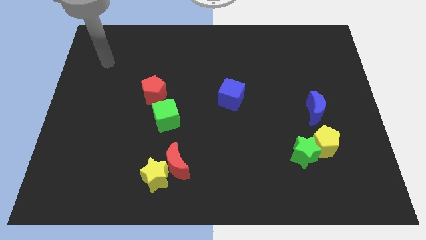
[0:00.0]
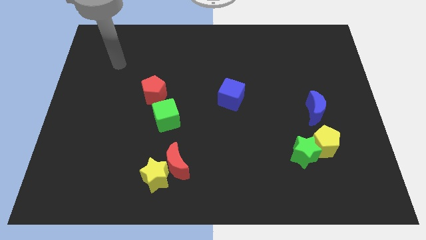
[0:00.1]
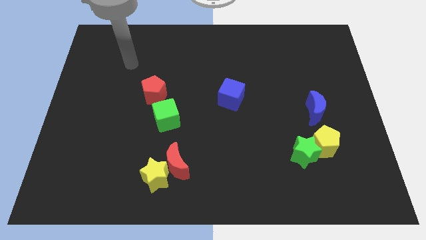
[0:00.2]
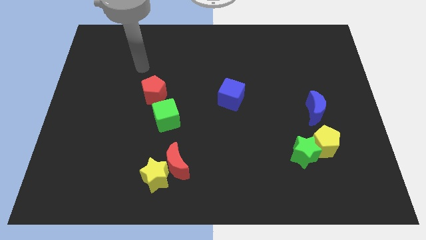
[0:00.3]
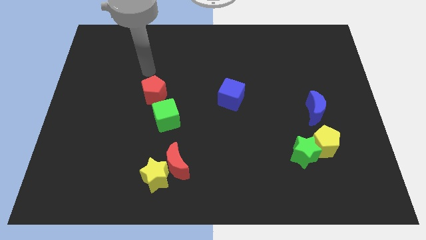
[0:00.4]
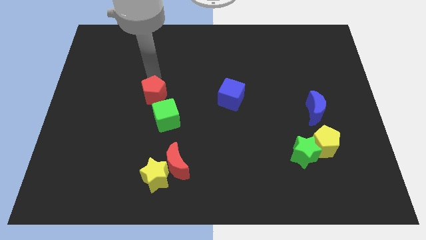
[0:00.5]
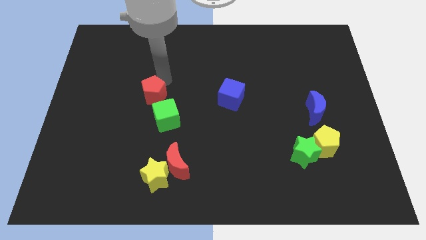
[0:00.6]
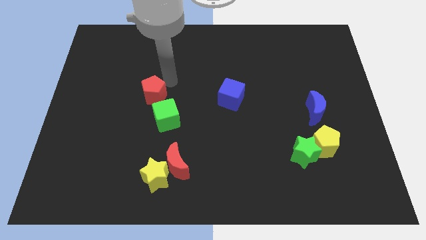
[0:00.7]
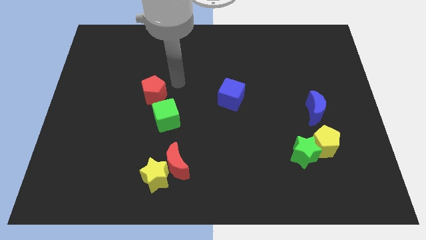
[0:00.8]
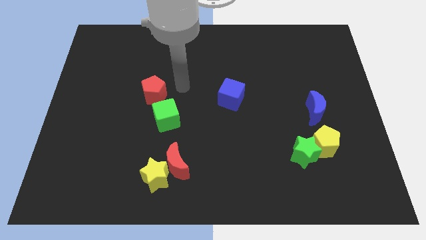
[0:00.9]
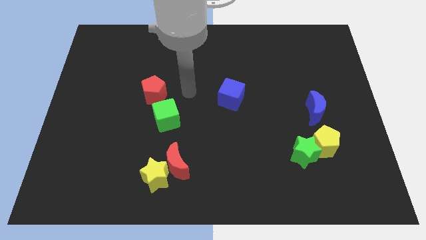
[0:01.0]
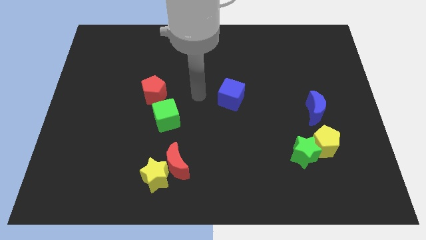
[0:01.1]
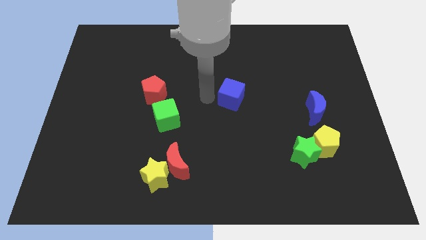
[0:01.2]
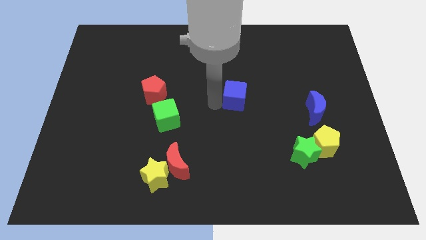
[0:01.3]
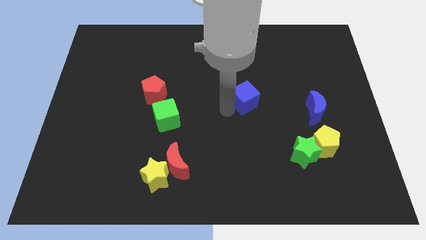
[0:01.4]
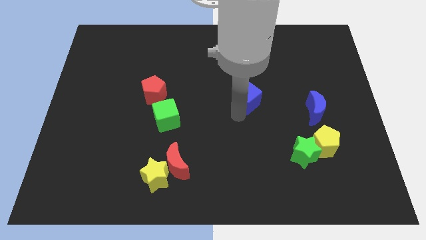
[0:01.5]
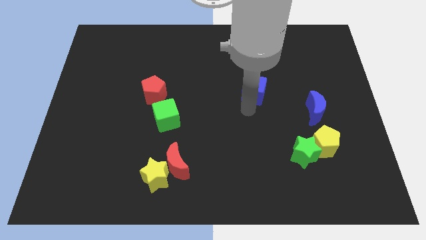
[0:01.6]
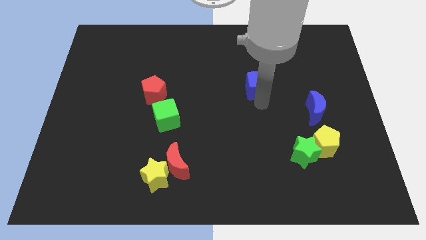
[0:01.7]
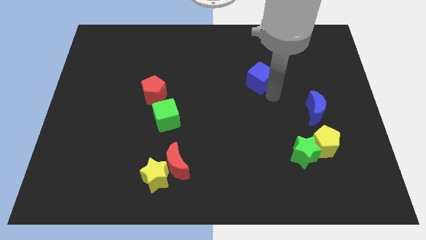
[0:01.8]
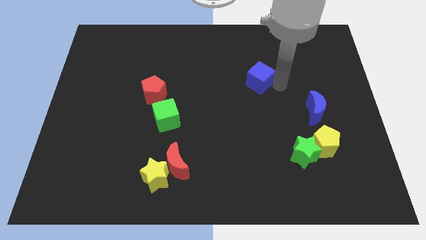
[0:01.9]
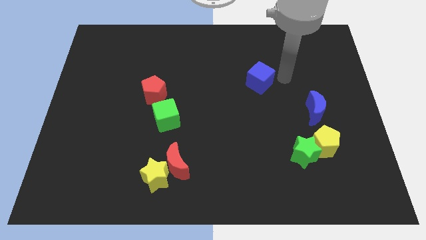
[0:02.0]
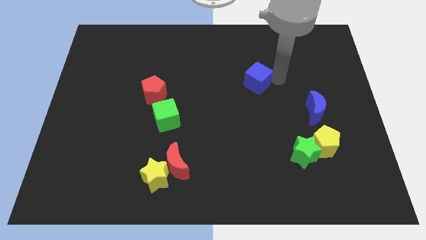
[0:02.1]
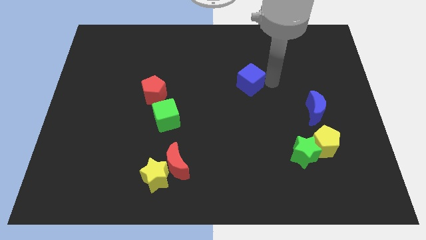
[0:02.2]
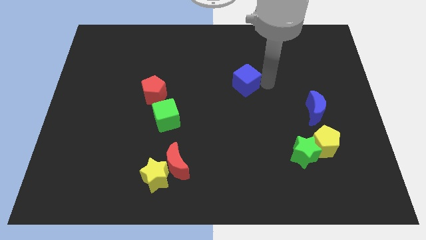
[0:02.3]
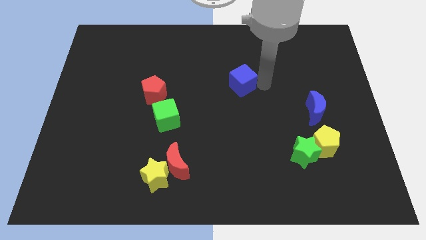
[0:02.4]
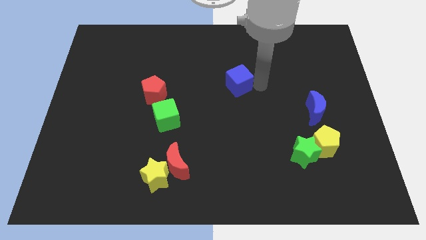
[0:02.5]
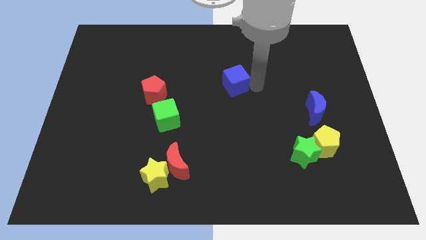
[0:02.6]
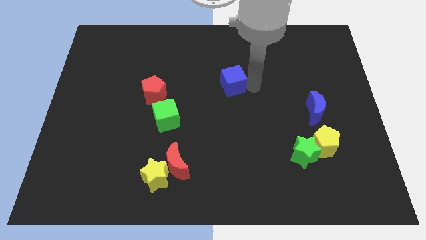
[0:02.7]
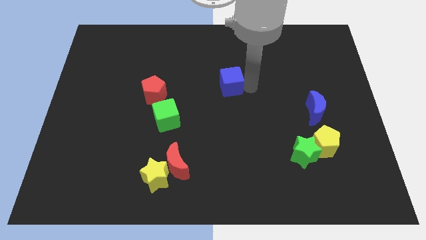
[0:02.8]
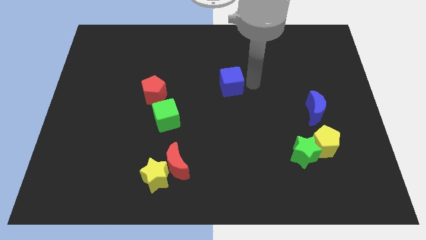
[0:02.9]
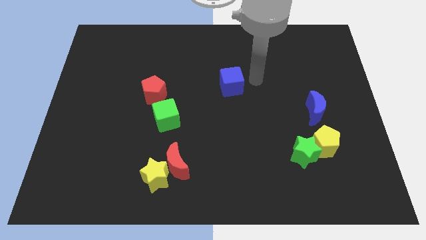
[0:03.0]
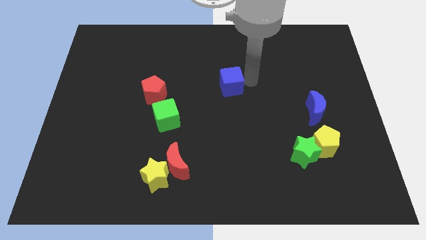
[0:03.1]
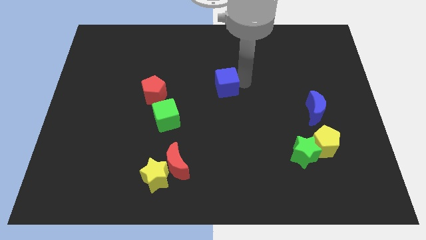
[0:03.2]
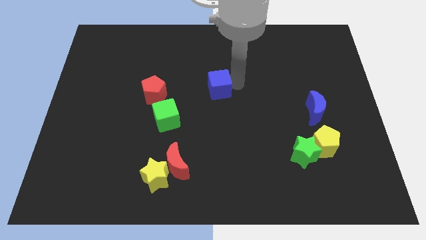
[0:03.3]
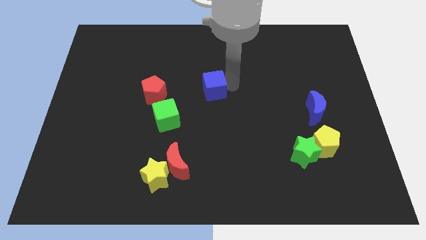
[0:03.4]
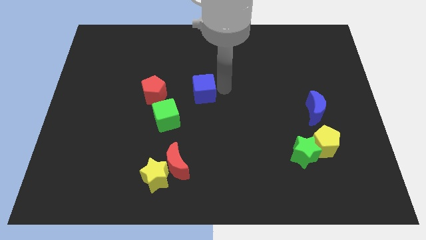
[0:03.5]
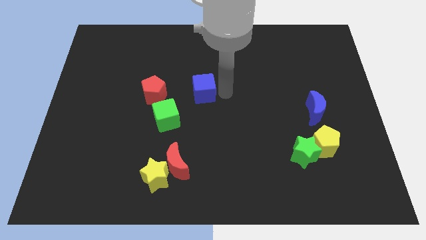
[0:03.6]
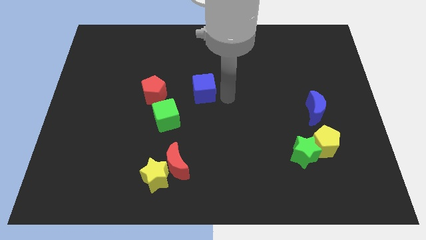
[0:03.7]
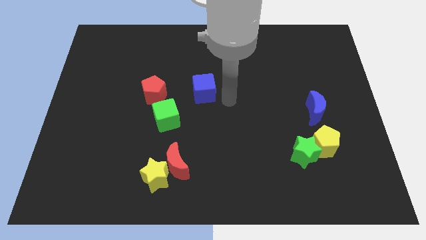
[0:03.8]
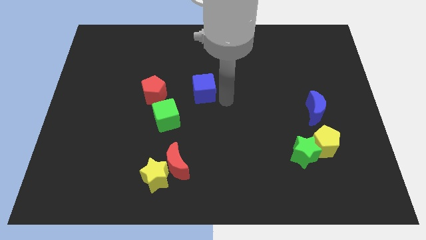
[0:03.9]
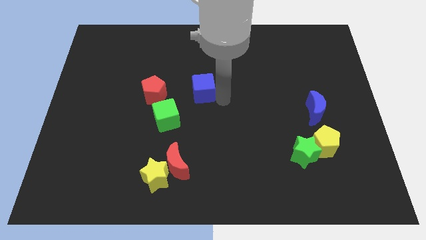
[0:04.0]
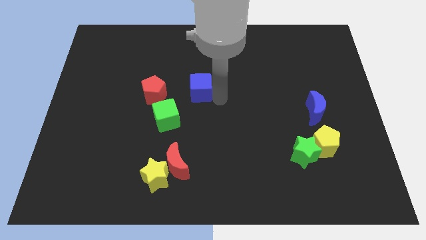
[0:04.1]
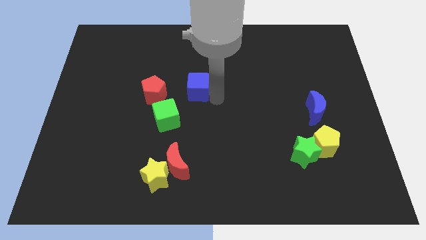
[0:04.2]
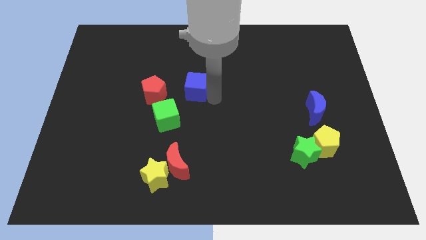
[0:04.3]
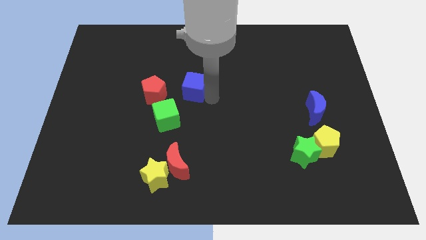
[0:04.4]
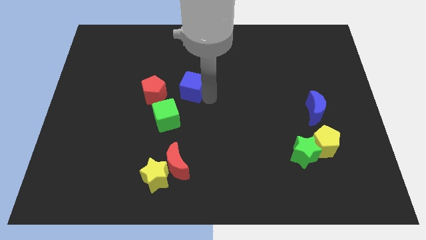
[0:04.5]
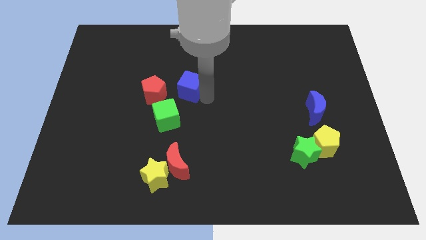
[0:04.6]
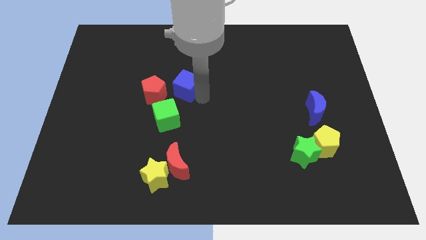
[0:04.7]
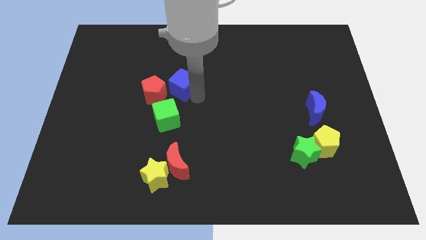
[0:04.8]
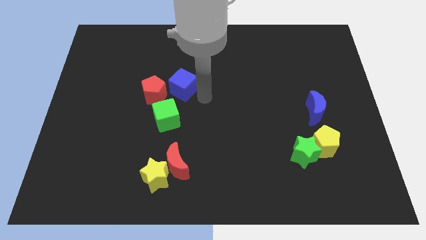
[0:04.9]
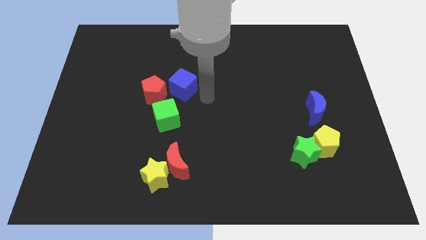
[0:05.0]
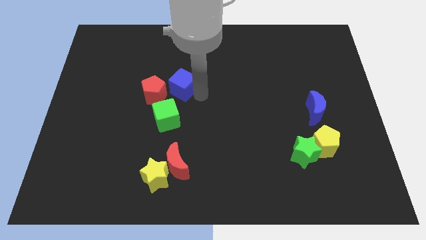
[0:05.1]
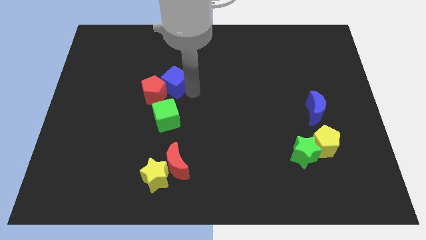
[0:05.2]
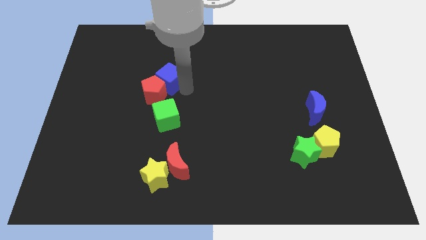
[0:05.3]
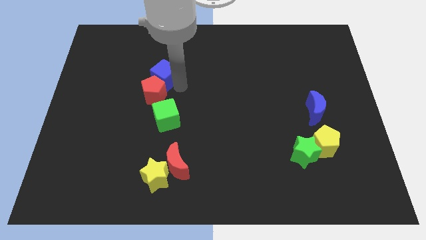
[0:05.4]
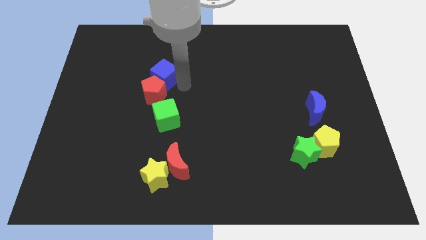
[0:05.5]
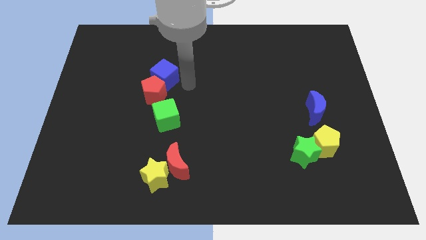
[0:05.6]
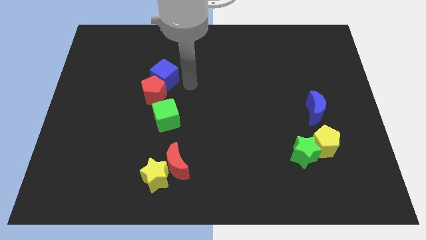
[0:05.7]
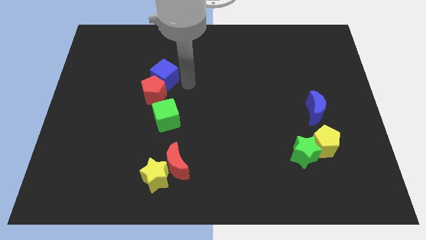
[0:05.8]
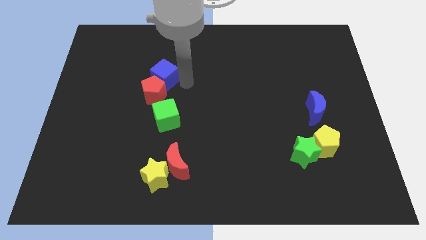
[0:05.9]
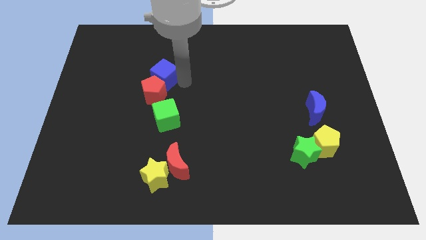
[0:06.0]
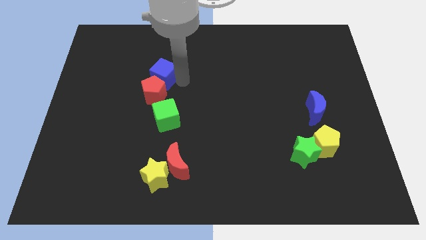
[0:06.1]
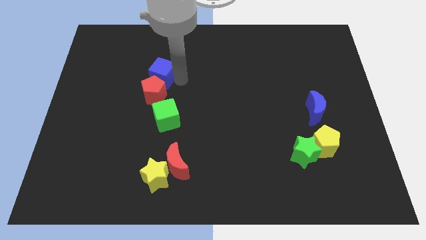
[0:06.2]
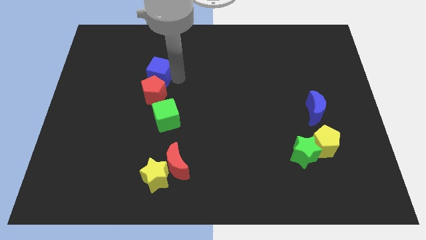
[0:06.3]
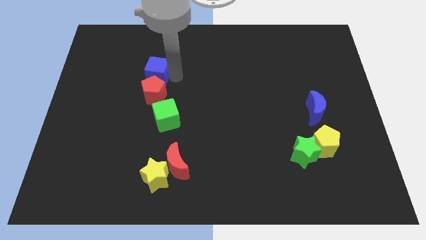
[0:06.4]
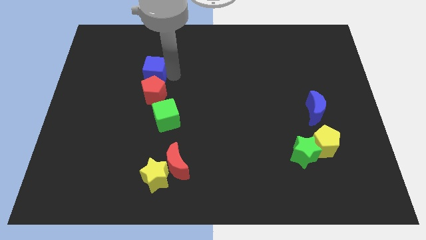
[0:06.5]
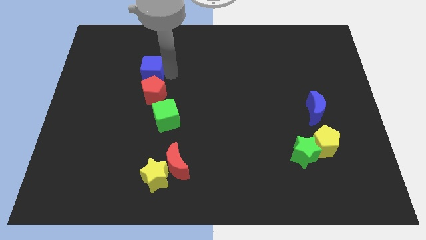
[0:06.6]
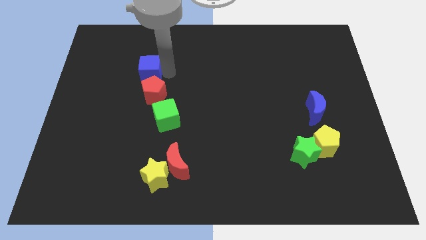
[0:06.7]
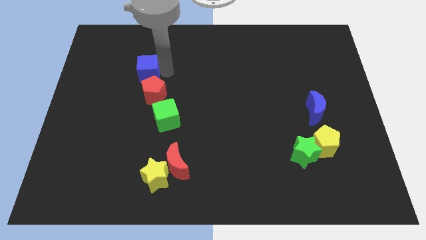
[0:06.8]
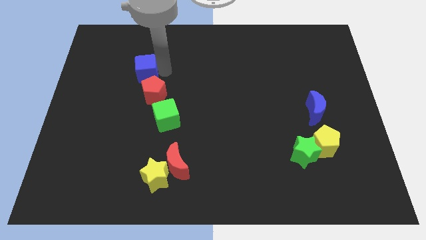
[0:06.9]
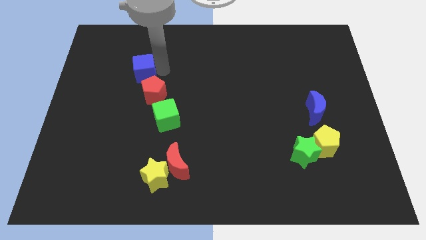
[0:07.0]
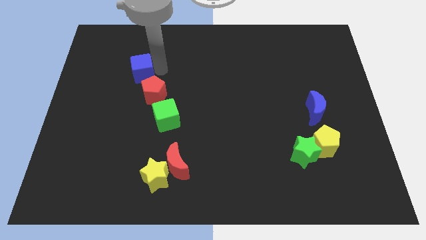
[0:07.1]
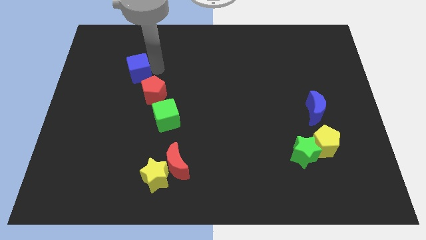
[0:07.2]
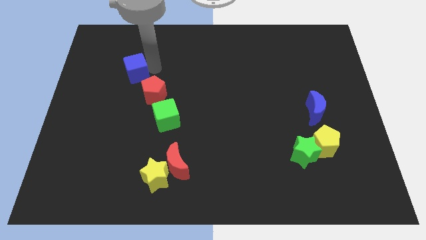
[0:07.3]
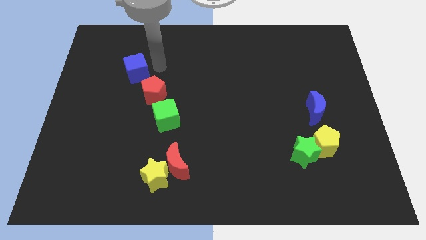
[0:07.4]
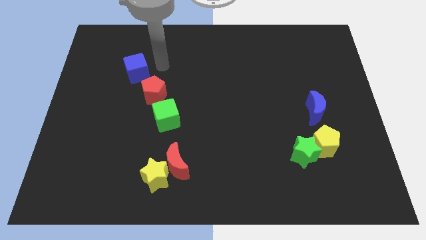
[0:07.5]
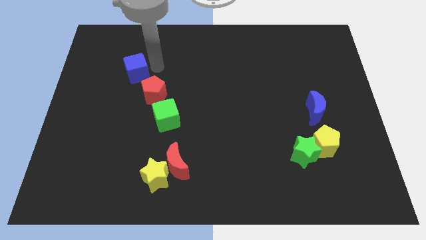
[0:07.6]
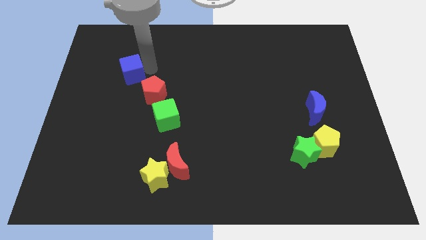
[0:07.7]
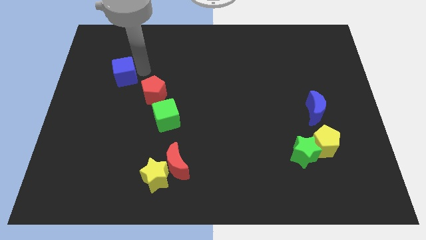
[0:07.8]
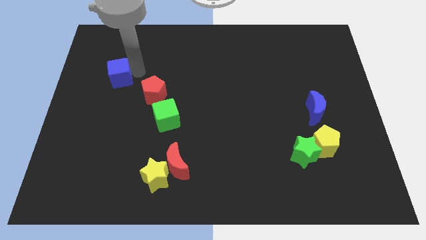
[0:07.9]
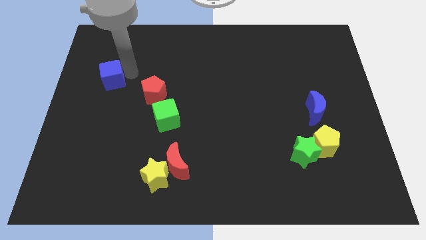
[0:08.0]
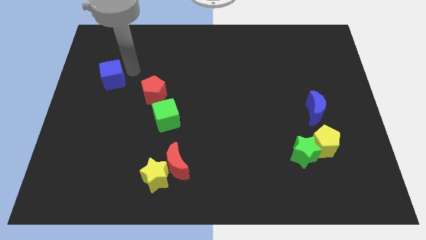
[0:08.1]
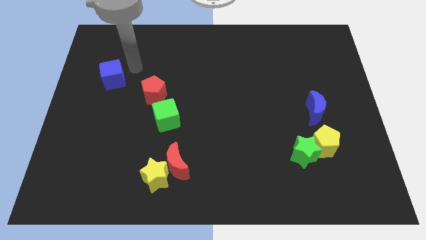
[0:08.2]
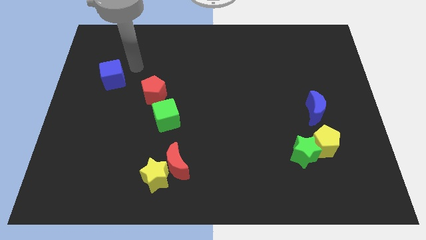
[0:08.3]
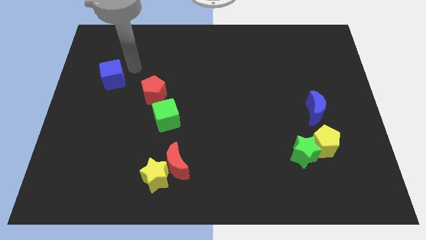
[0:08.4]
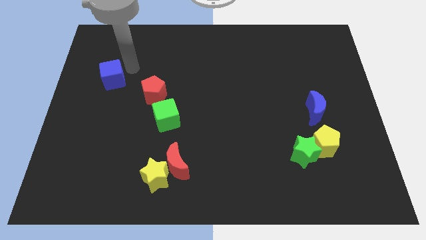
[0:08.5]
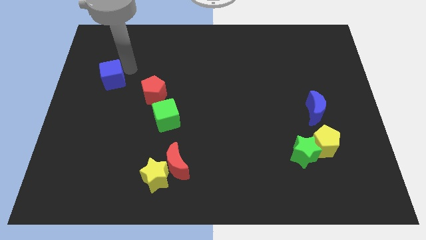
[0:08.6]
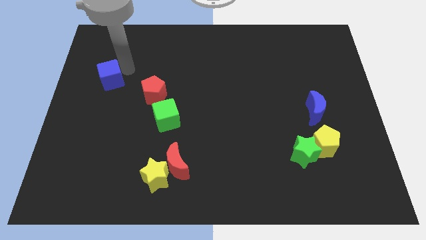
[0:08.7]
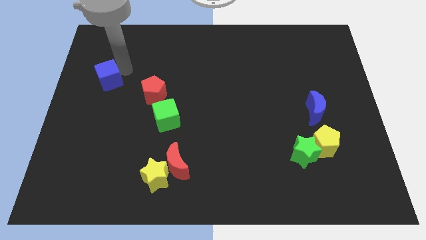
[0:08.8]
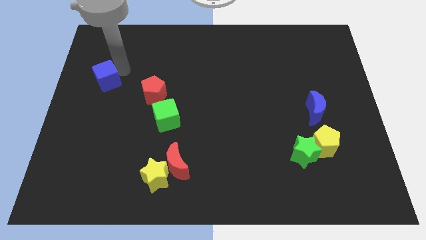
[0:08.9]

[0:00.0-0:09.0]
put the blue cube to the center left
